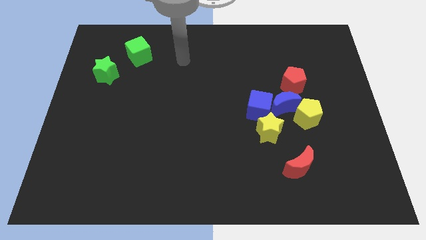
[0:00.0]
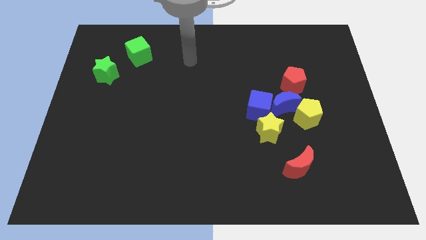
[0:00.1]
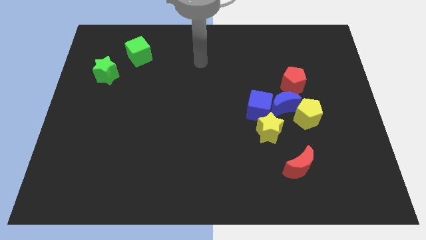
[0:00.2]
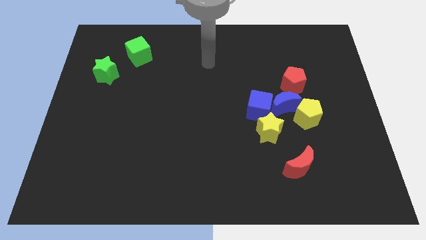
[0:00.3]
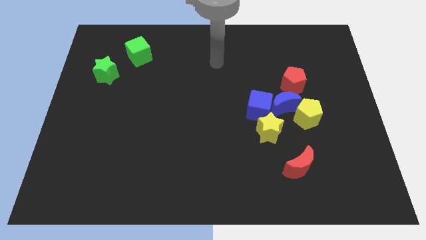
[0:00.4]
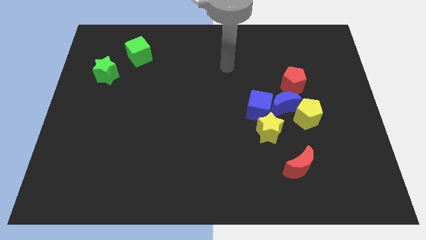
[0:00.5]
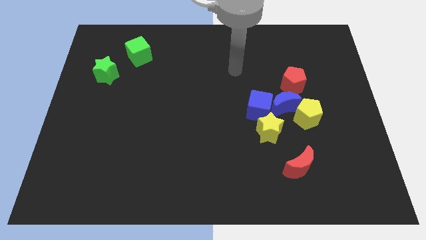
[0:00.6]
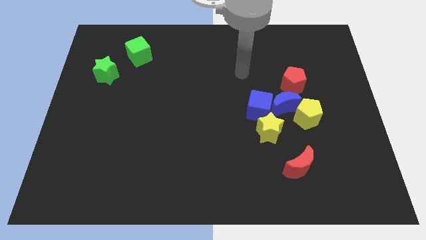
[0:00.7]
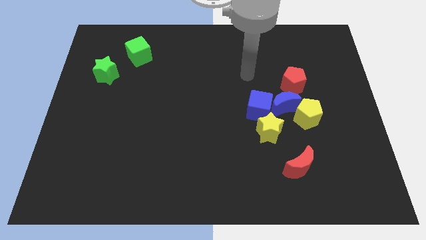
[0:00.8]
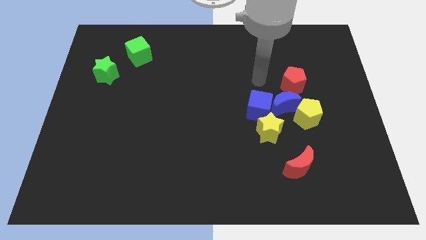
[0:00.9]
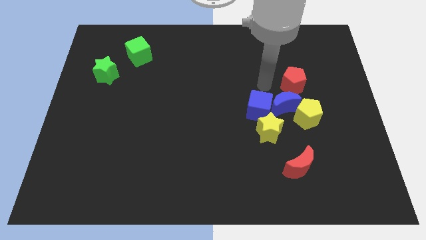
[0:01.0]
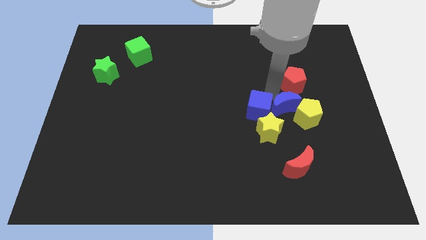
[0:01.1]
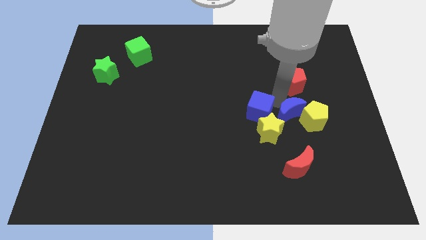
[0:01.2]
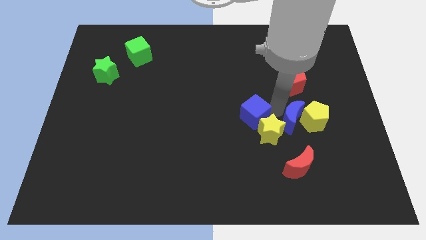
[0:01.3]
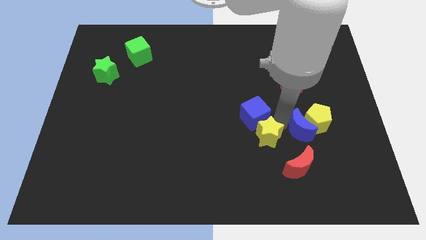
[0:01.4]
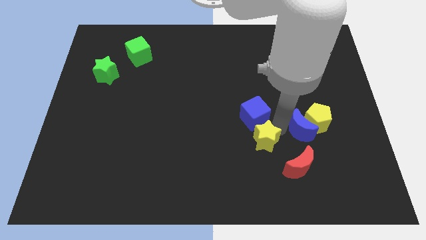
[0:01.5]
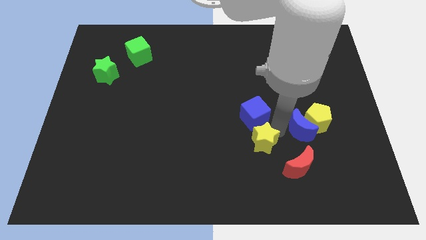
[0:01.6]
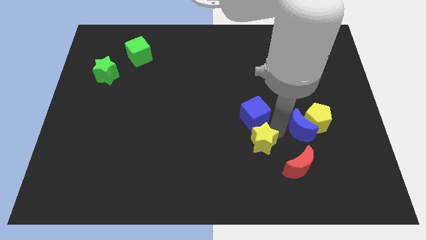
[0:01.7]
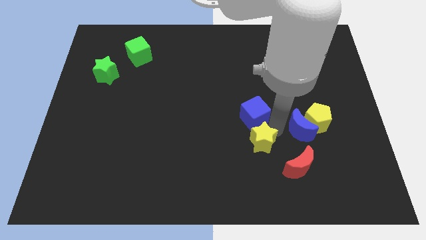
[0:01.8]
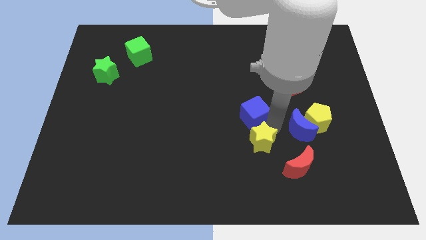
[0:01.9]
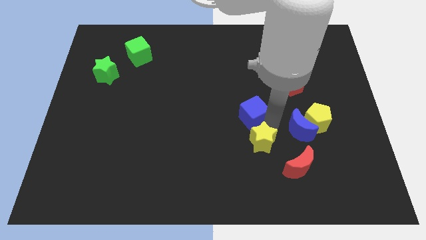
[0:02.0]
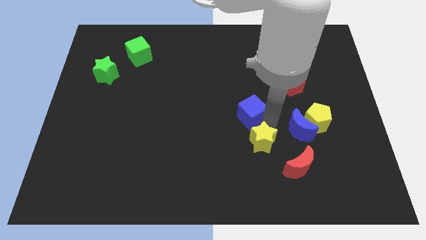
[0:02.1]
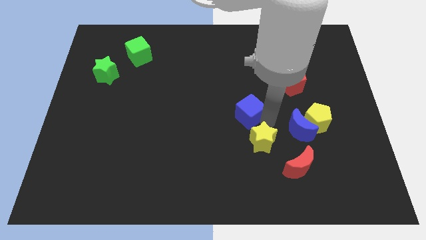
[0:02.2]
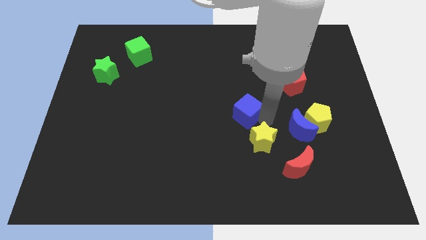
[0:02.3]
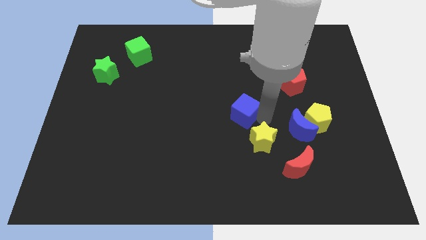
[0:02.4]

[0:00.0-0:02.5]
move the blue cube away from the blue moon and yellow star

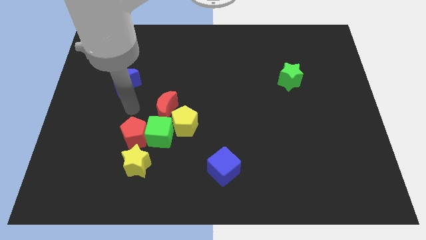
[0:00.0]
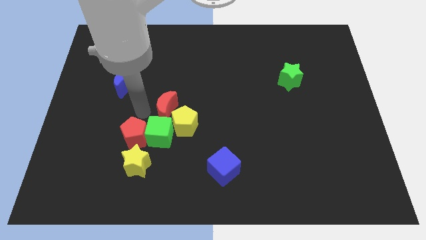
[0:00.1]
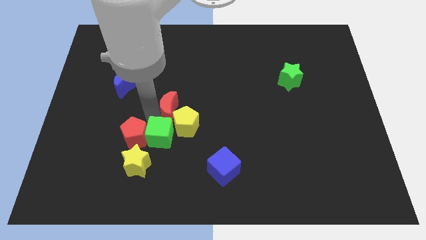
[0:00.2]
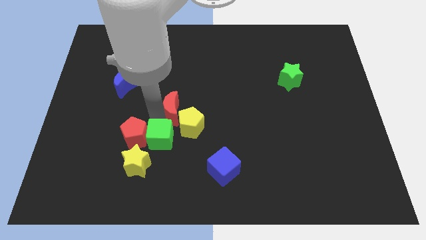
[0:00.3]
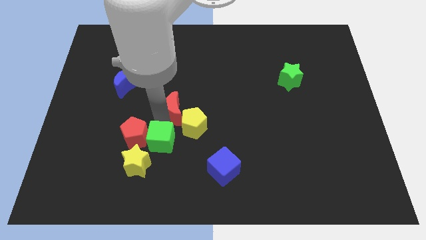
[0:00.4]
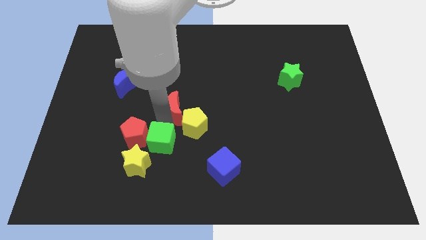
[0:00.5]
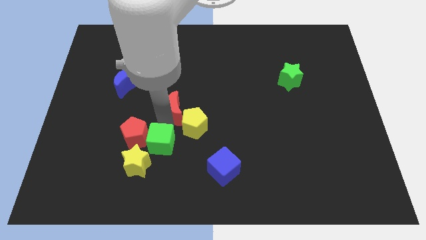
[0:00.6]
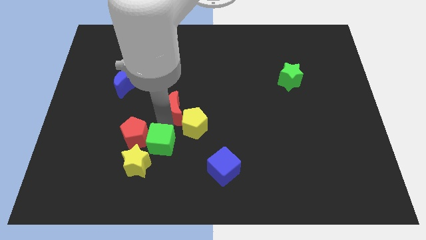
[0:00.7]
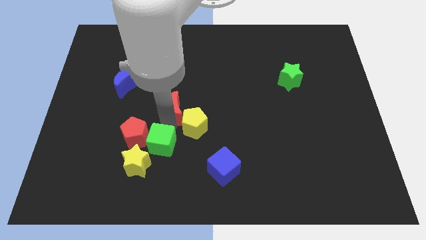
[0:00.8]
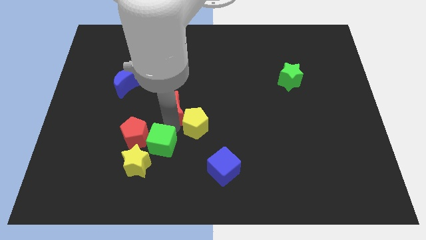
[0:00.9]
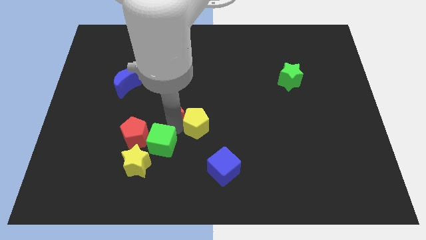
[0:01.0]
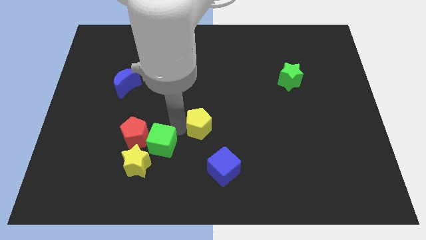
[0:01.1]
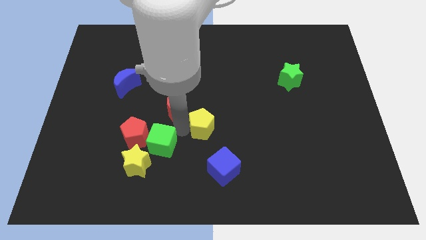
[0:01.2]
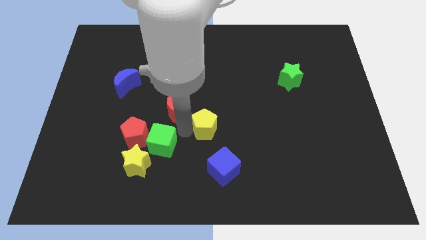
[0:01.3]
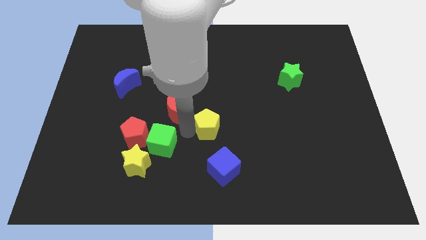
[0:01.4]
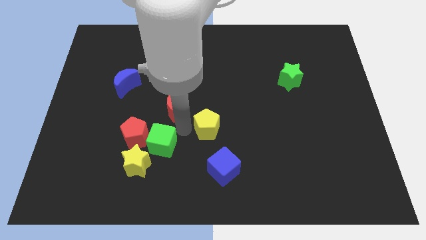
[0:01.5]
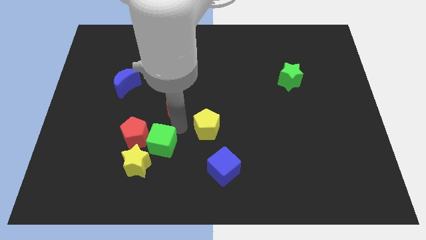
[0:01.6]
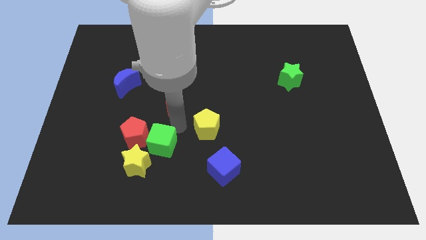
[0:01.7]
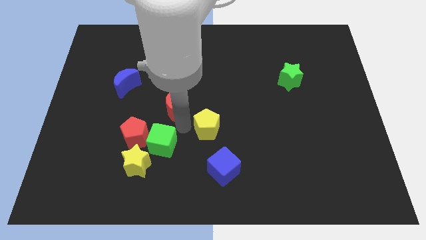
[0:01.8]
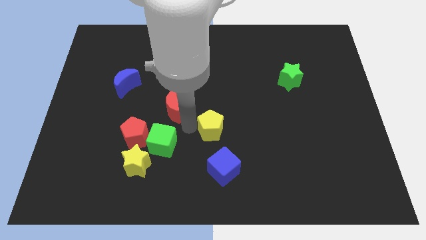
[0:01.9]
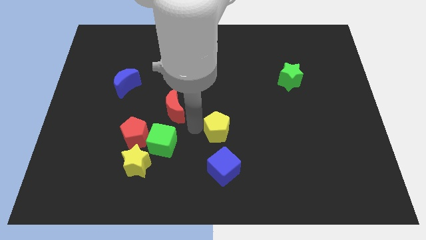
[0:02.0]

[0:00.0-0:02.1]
separate the yellow pentagon from the green cube and red moon

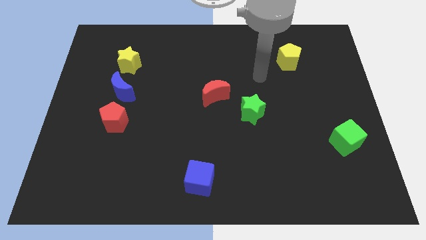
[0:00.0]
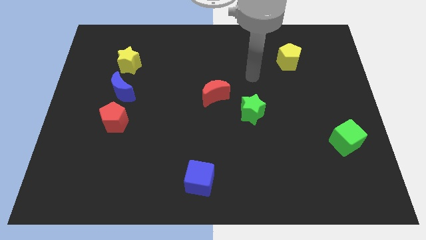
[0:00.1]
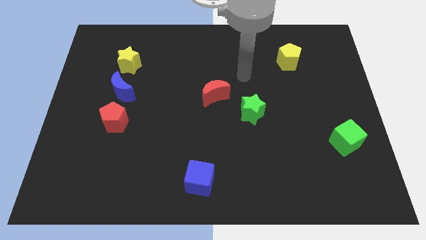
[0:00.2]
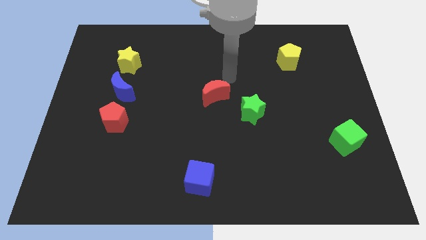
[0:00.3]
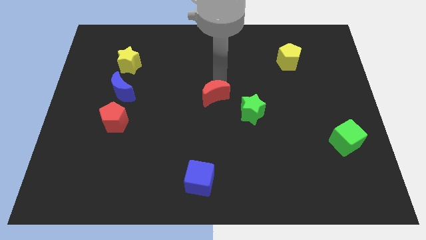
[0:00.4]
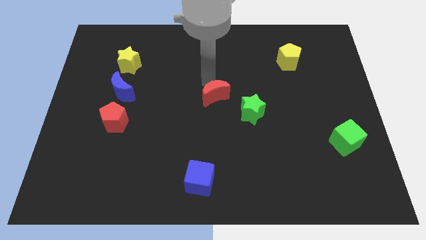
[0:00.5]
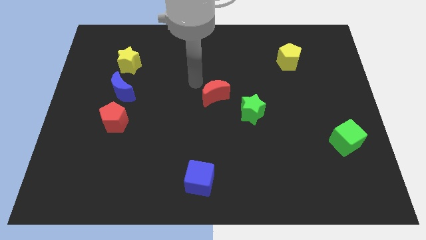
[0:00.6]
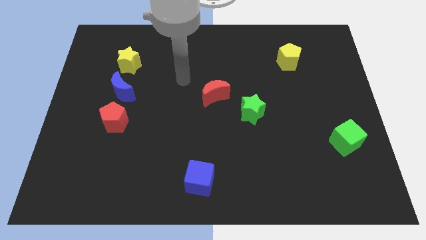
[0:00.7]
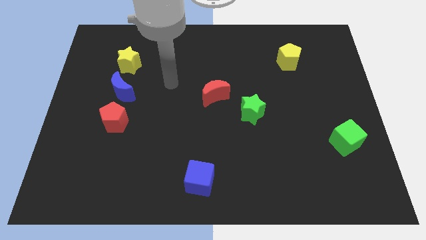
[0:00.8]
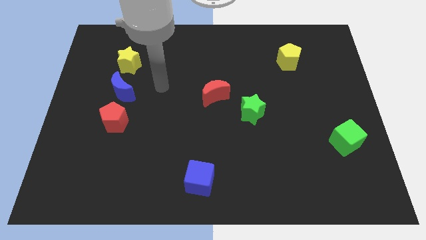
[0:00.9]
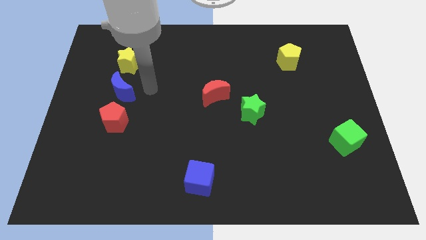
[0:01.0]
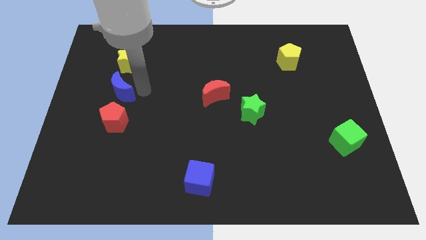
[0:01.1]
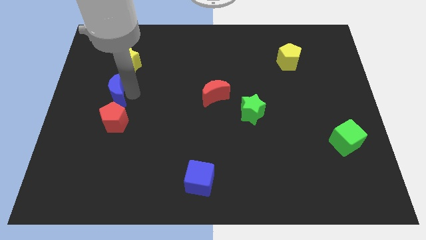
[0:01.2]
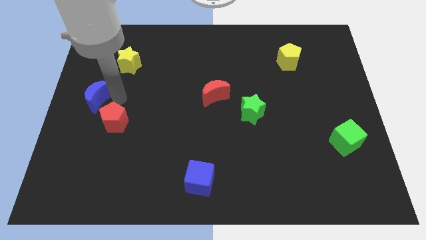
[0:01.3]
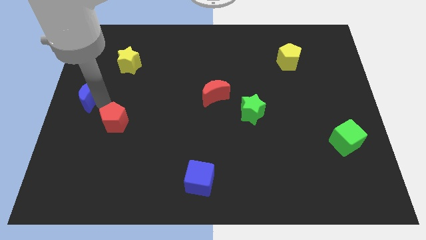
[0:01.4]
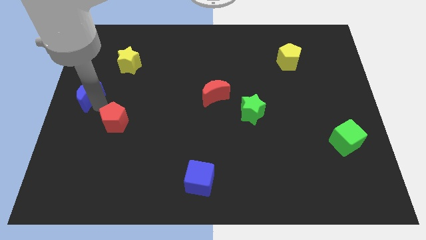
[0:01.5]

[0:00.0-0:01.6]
pull the red pentagon apart from the blue moon

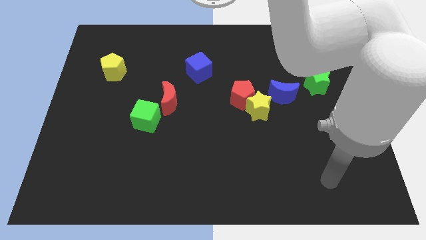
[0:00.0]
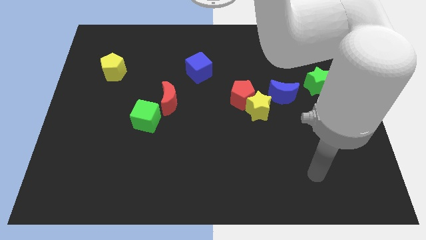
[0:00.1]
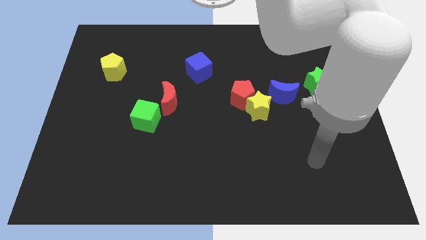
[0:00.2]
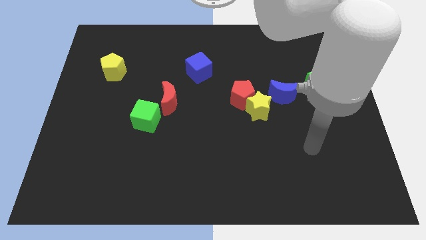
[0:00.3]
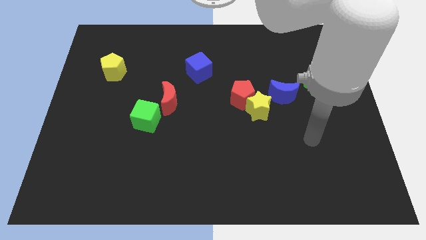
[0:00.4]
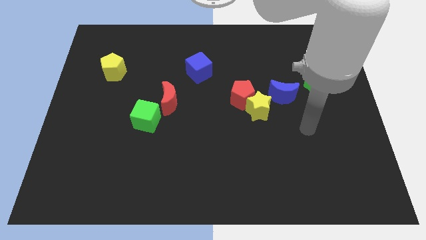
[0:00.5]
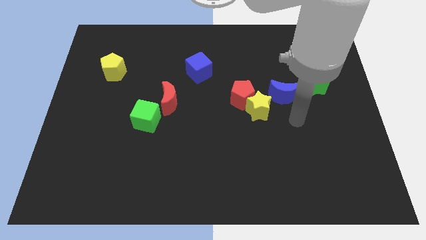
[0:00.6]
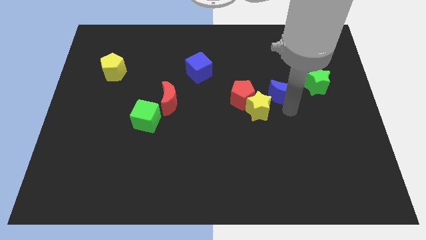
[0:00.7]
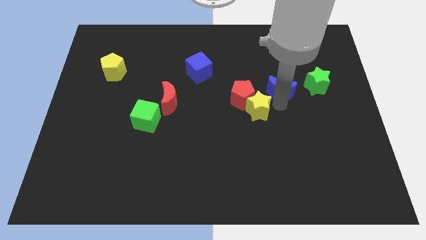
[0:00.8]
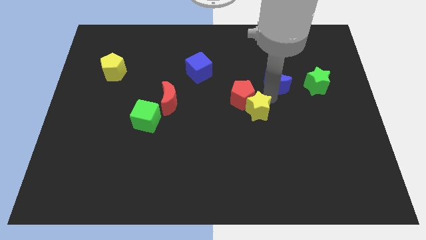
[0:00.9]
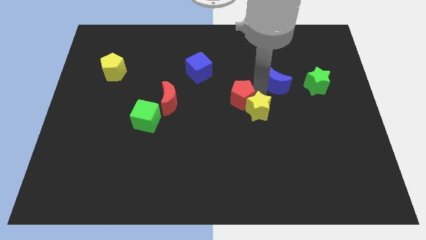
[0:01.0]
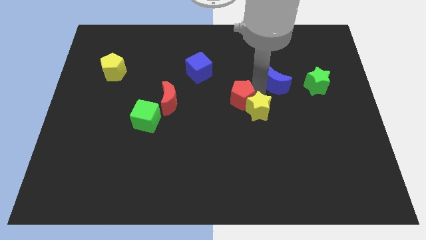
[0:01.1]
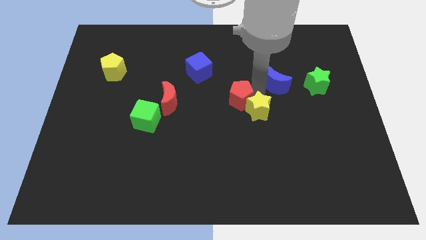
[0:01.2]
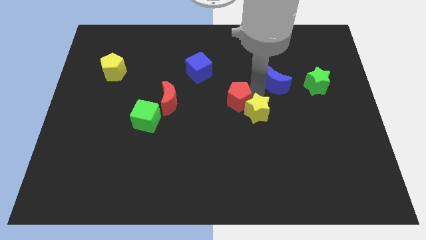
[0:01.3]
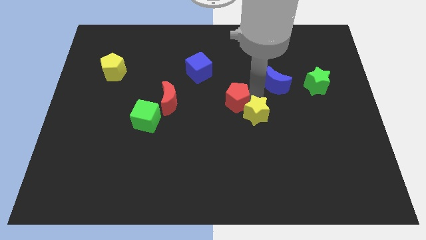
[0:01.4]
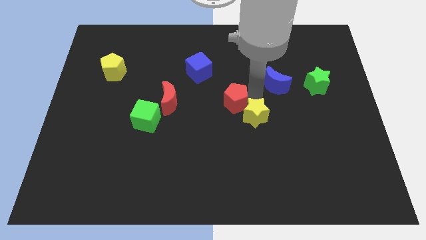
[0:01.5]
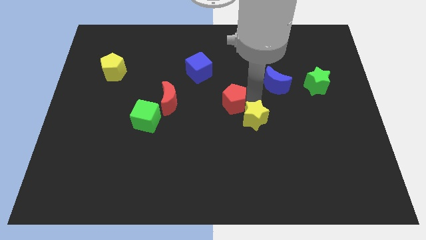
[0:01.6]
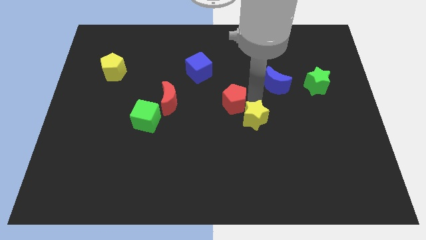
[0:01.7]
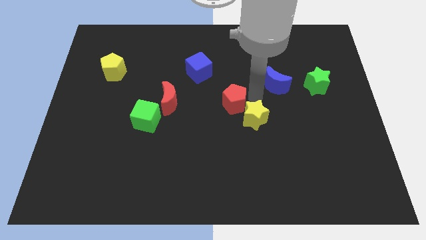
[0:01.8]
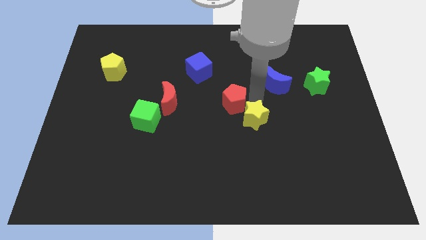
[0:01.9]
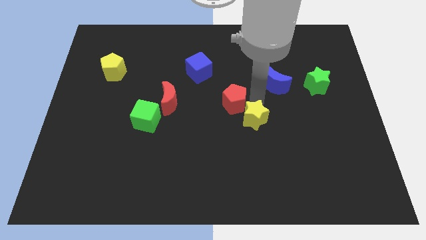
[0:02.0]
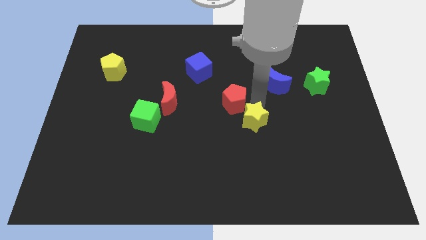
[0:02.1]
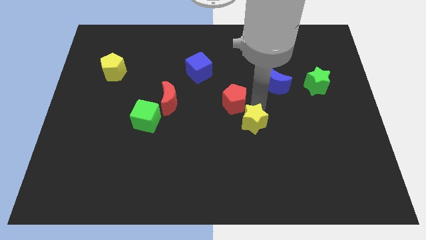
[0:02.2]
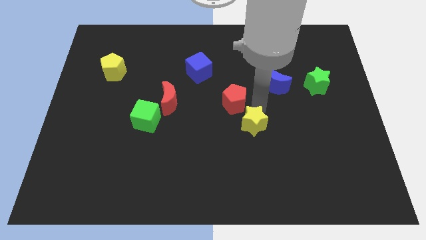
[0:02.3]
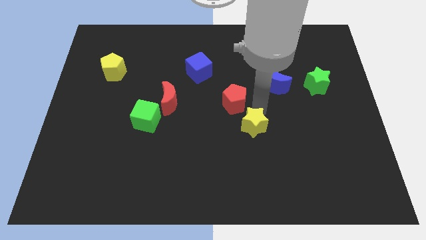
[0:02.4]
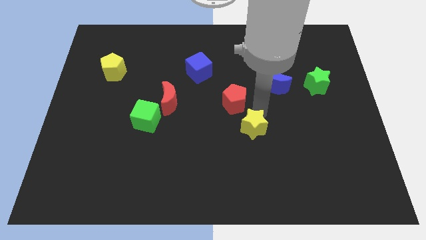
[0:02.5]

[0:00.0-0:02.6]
move the yellow star away from the red pentagon and blue moon

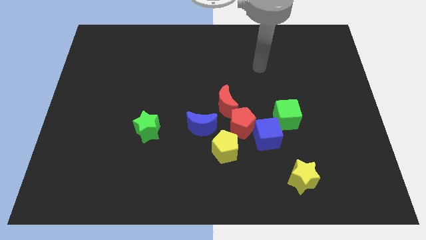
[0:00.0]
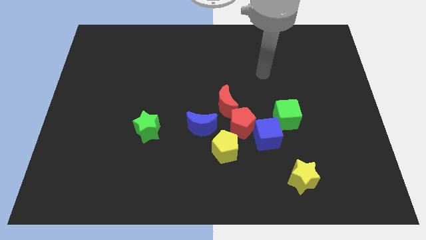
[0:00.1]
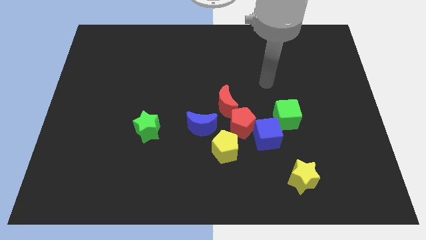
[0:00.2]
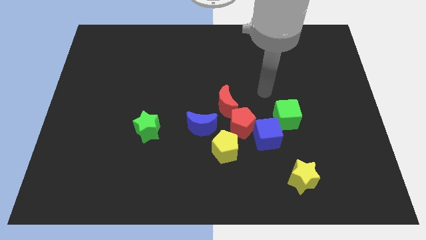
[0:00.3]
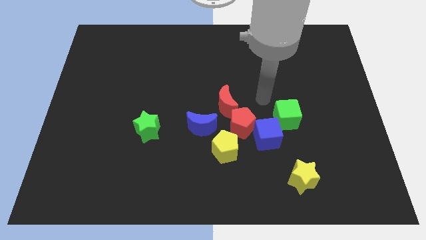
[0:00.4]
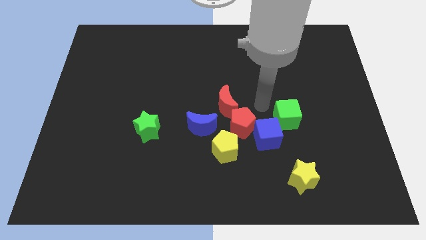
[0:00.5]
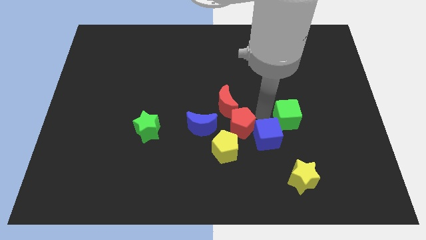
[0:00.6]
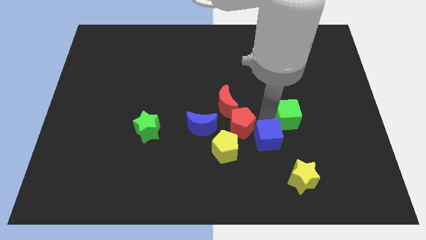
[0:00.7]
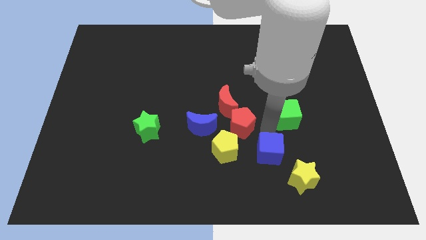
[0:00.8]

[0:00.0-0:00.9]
pull the green cube apart from the blue cube
